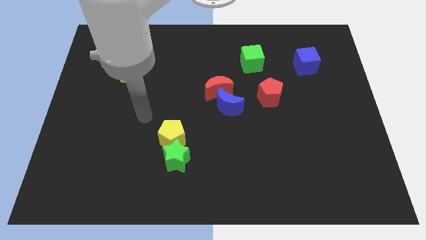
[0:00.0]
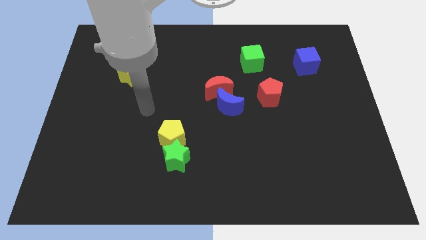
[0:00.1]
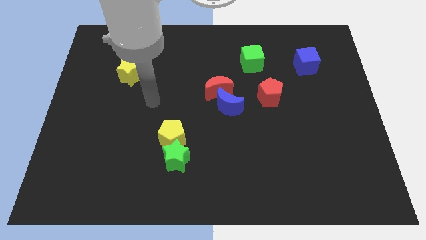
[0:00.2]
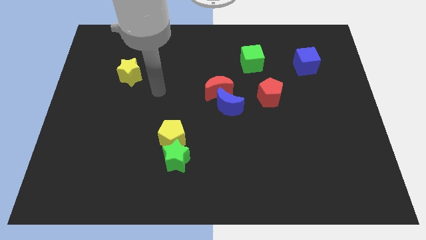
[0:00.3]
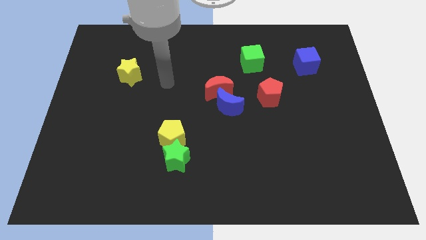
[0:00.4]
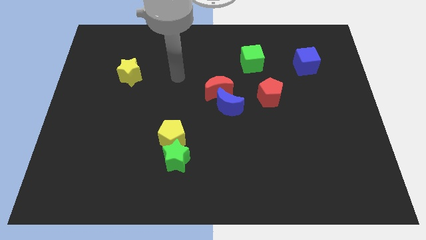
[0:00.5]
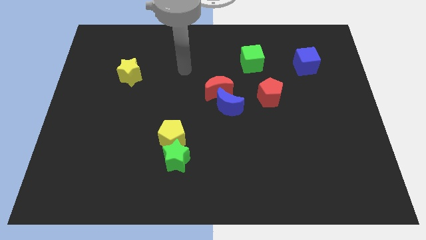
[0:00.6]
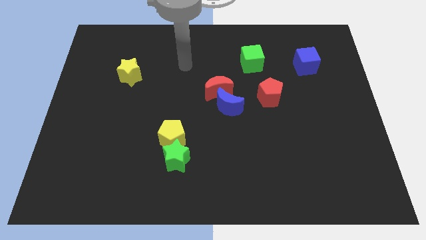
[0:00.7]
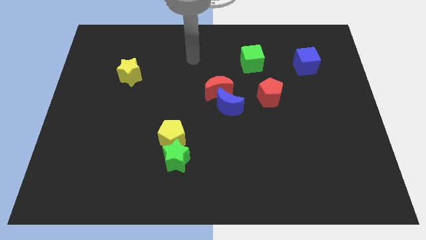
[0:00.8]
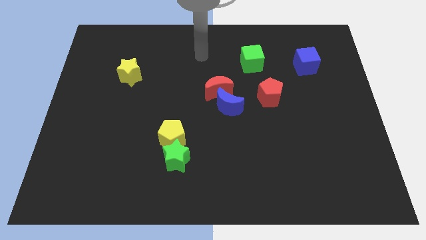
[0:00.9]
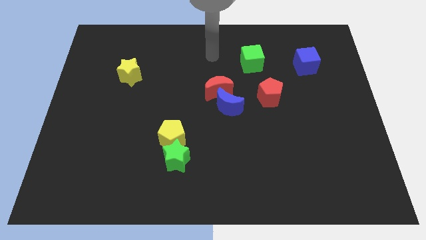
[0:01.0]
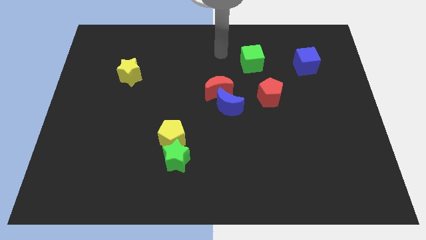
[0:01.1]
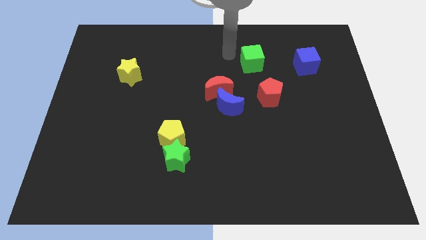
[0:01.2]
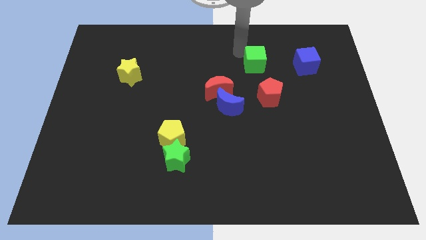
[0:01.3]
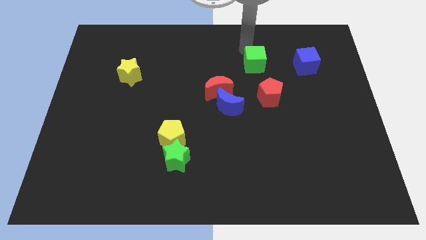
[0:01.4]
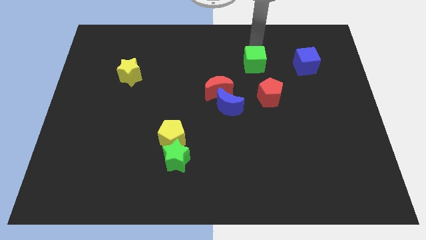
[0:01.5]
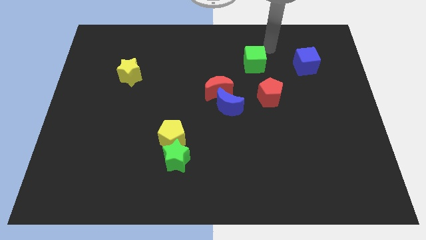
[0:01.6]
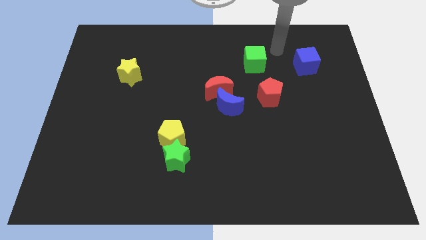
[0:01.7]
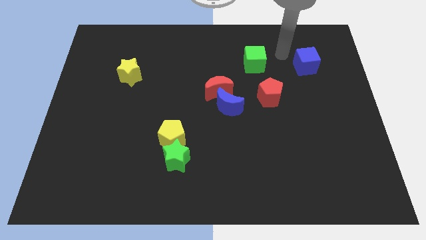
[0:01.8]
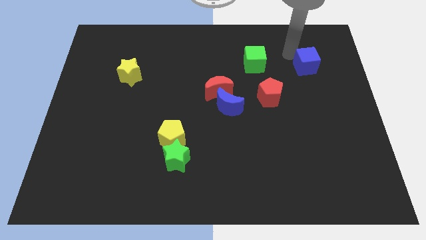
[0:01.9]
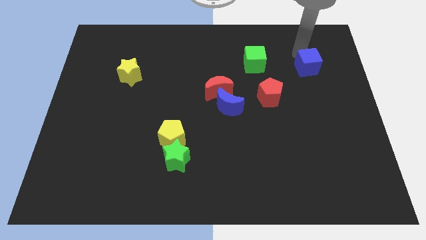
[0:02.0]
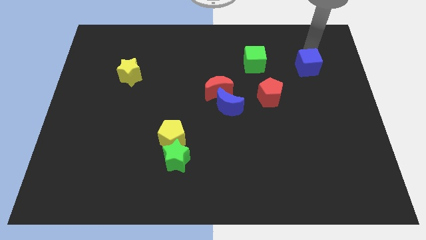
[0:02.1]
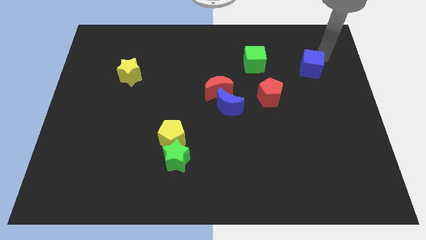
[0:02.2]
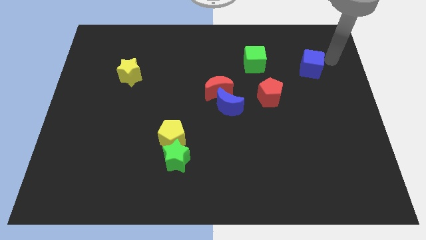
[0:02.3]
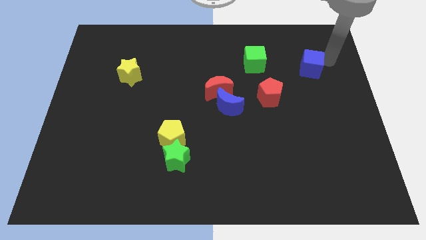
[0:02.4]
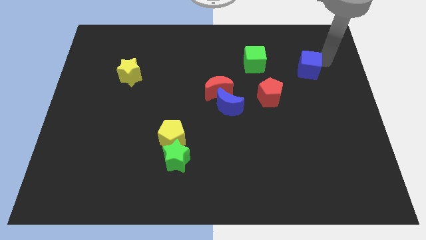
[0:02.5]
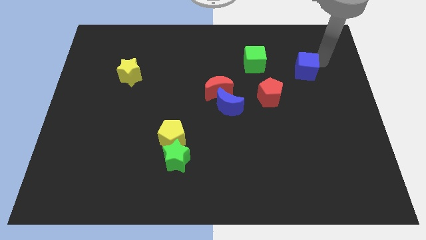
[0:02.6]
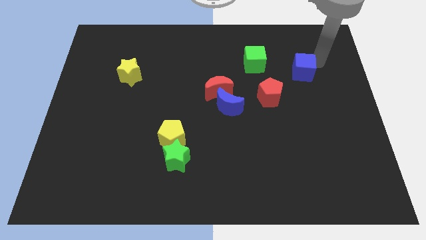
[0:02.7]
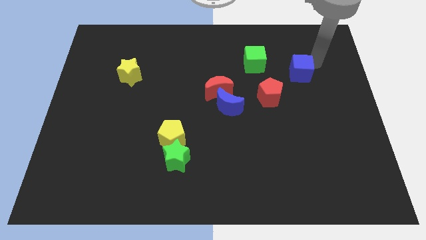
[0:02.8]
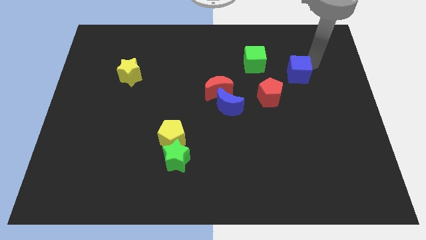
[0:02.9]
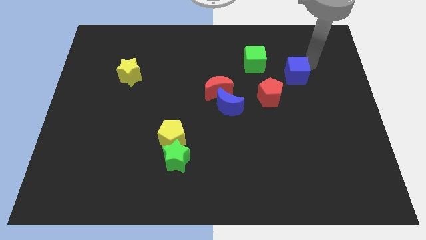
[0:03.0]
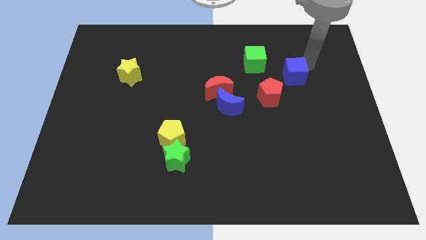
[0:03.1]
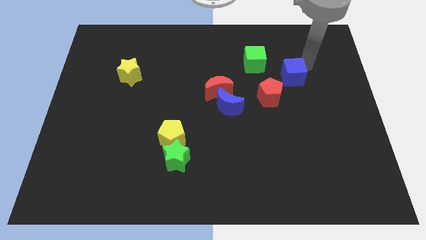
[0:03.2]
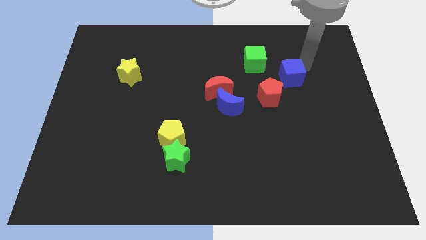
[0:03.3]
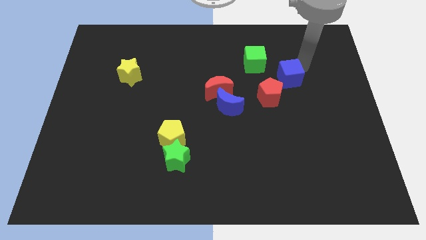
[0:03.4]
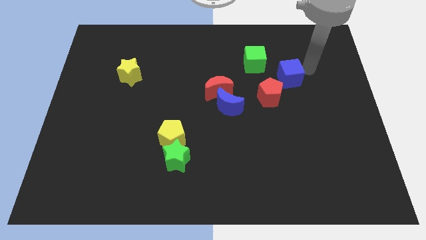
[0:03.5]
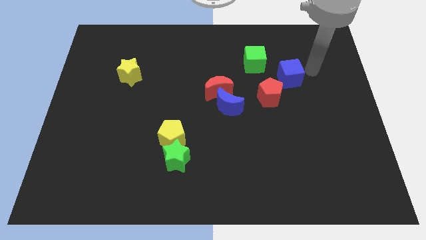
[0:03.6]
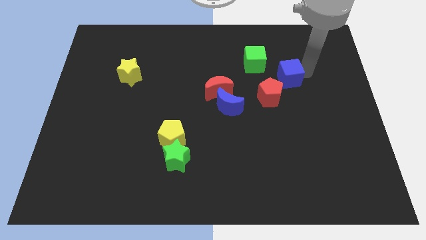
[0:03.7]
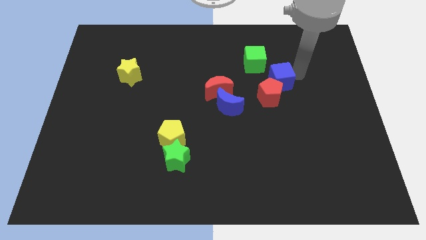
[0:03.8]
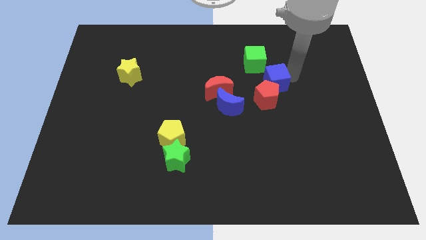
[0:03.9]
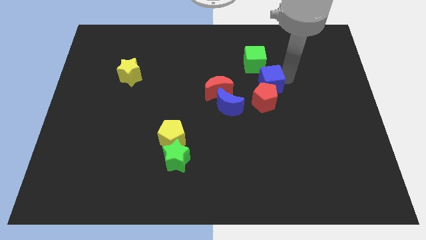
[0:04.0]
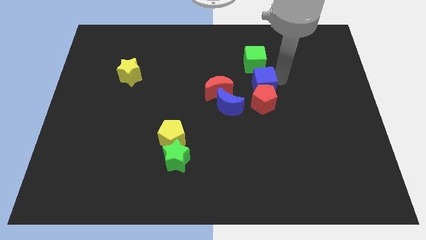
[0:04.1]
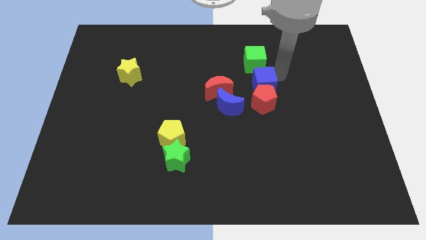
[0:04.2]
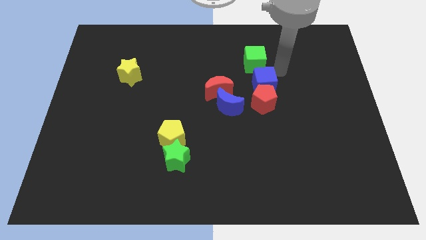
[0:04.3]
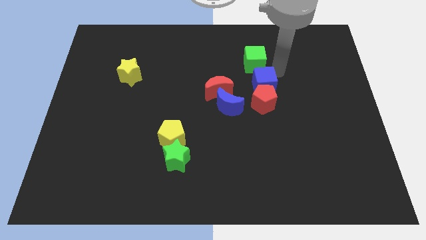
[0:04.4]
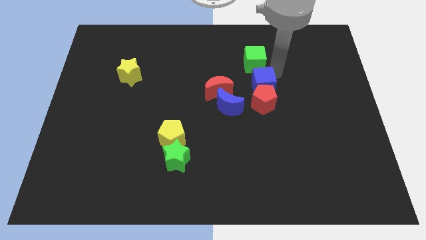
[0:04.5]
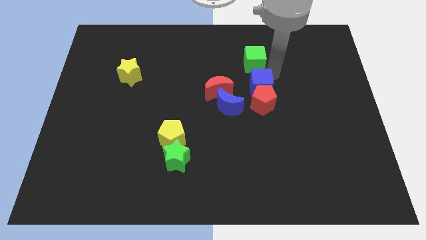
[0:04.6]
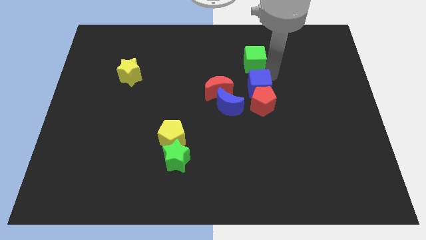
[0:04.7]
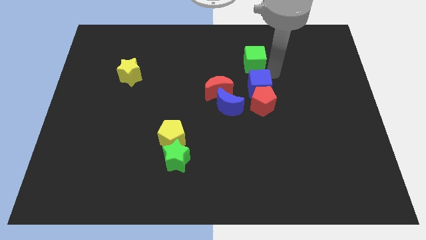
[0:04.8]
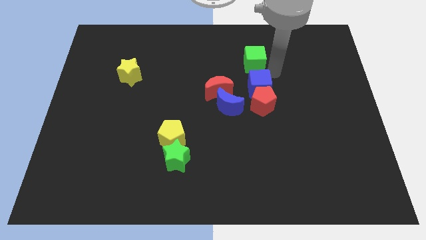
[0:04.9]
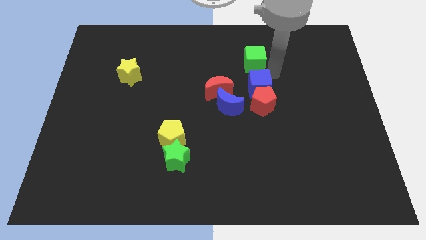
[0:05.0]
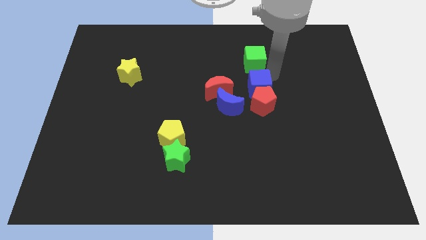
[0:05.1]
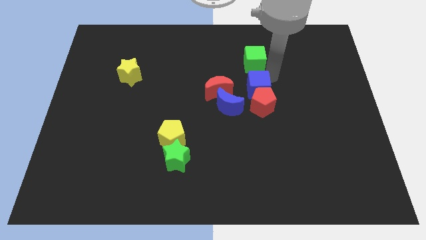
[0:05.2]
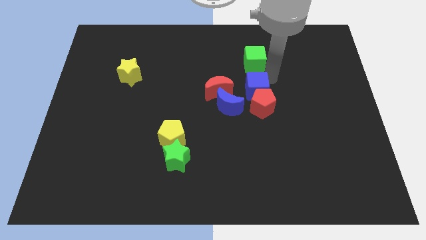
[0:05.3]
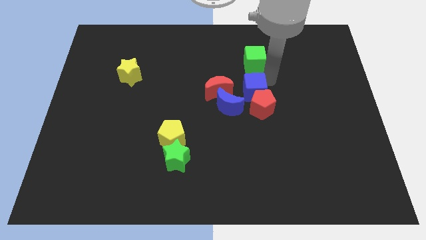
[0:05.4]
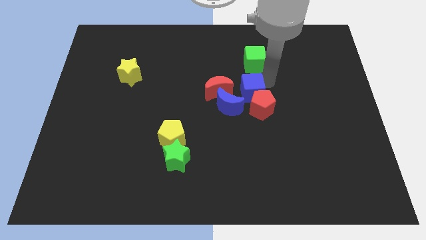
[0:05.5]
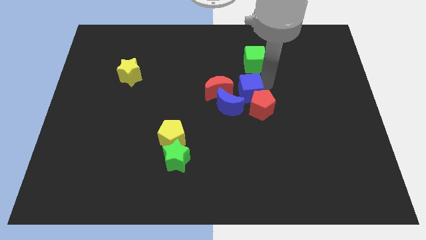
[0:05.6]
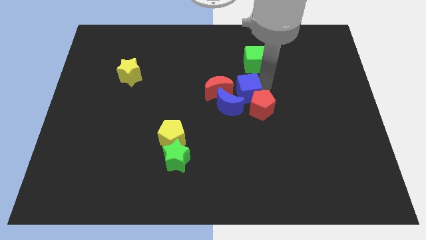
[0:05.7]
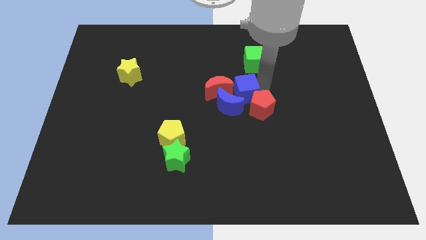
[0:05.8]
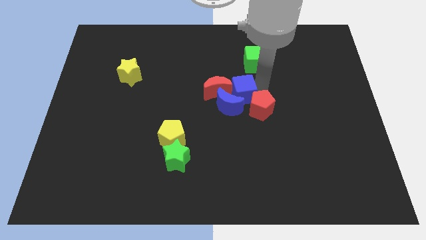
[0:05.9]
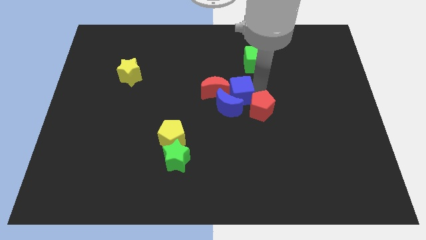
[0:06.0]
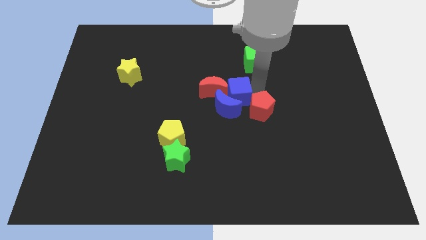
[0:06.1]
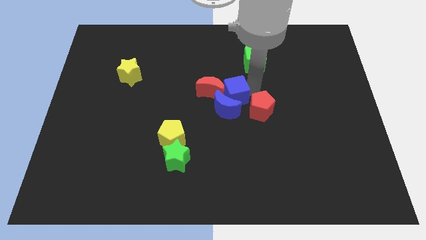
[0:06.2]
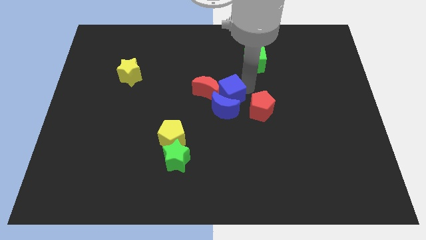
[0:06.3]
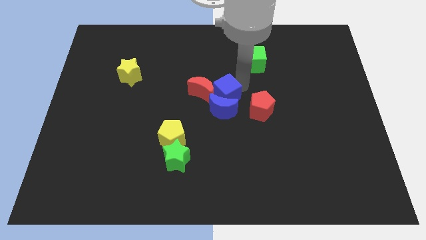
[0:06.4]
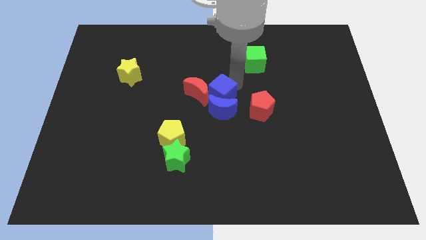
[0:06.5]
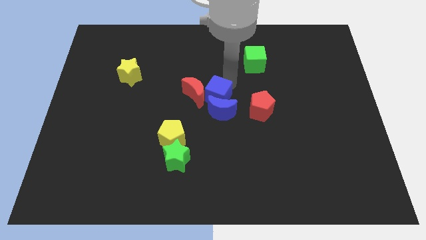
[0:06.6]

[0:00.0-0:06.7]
push the blue cube diagonally downwards and left

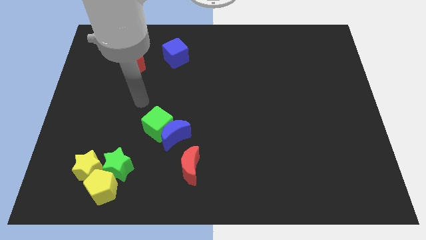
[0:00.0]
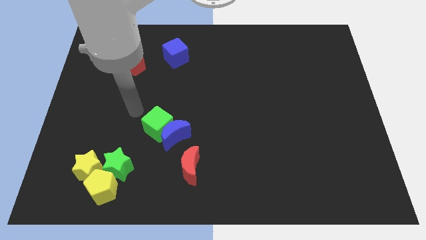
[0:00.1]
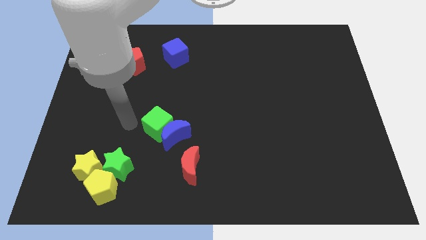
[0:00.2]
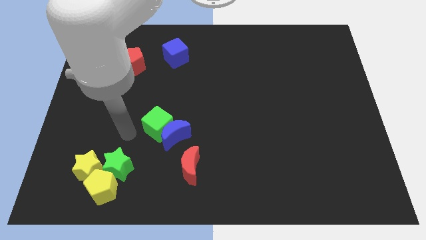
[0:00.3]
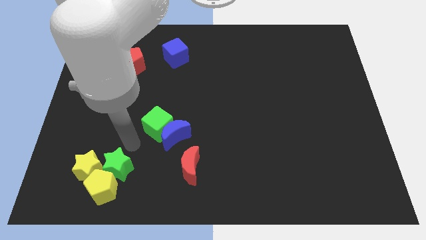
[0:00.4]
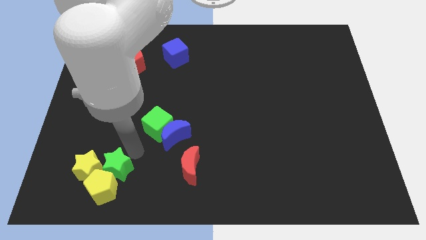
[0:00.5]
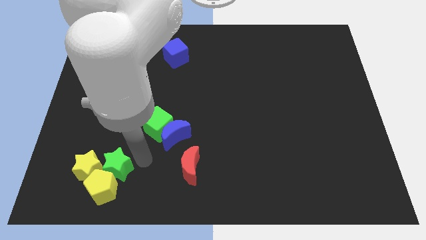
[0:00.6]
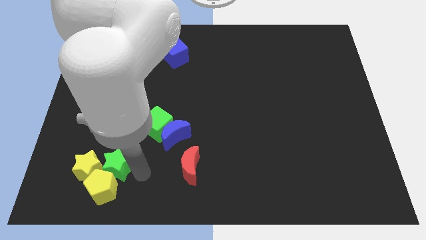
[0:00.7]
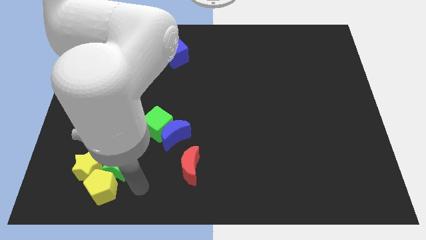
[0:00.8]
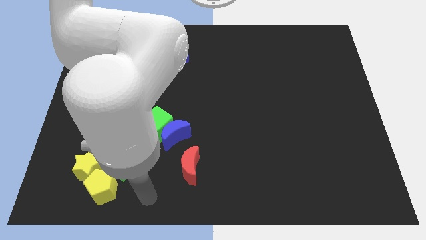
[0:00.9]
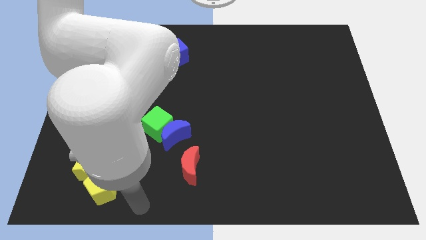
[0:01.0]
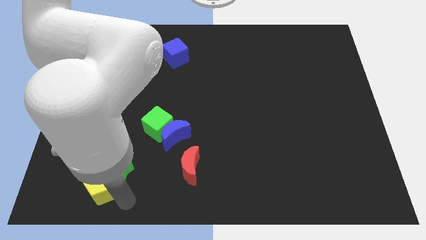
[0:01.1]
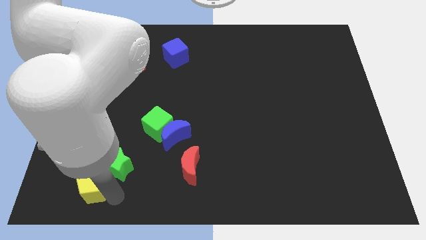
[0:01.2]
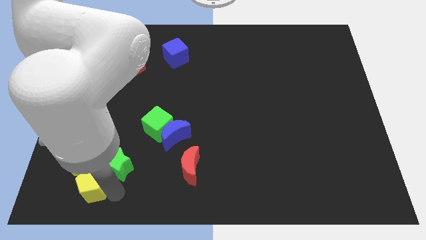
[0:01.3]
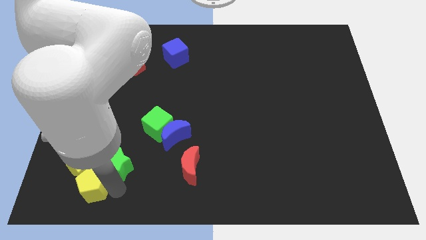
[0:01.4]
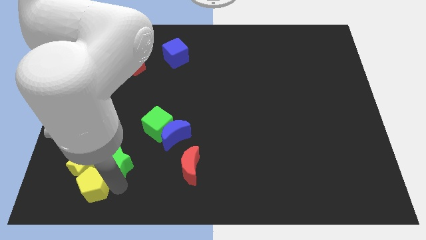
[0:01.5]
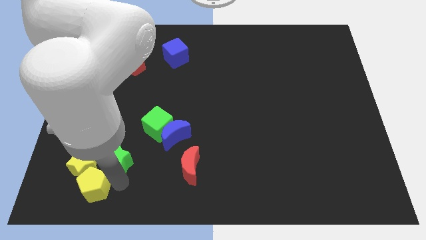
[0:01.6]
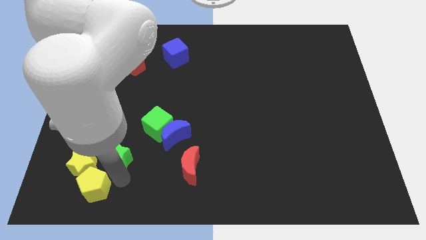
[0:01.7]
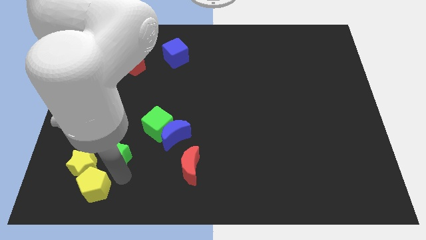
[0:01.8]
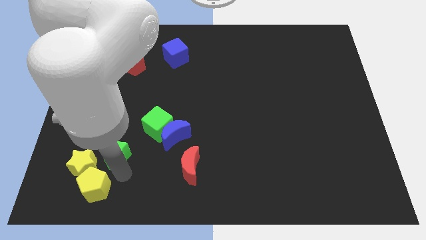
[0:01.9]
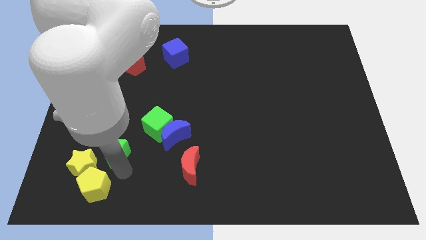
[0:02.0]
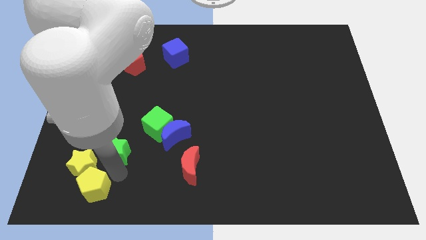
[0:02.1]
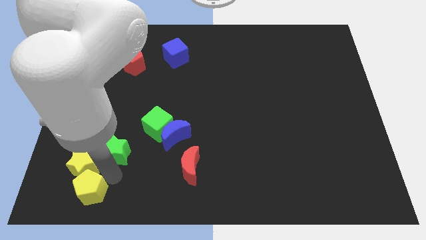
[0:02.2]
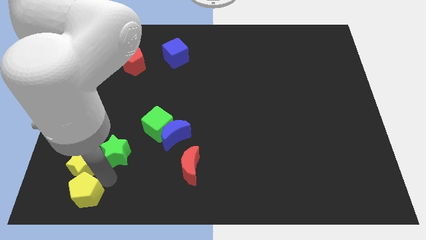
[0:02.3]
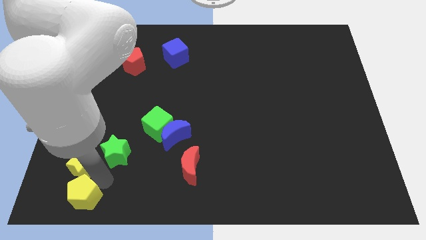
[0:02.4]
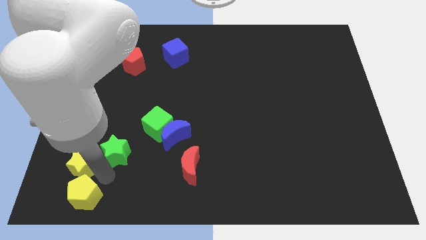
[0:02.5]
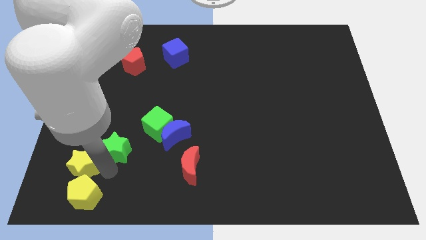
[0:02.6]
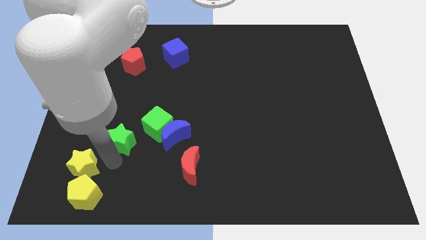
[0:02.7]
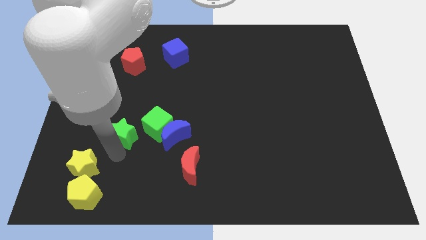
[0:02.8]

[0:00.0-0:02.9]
slide the green star a little up
